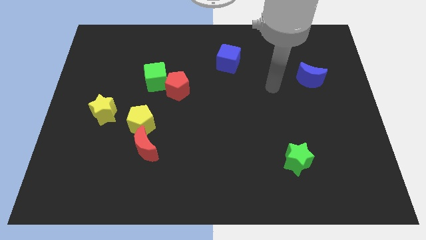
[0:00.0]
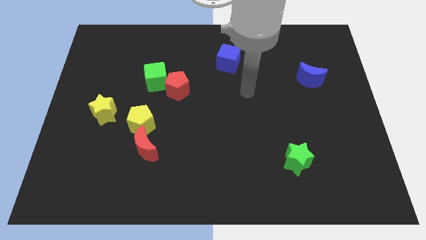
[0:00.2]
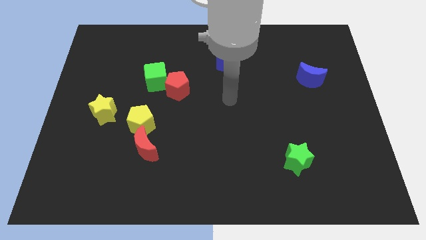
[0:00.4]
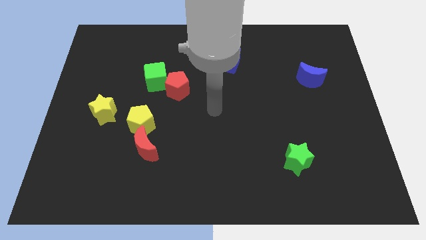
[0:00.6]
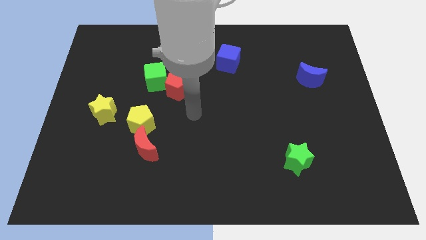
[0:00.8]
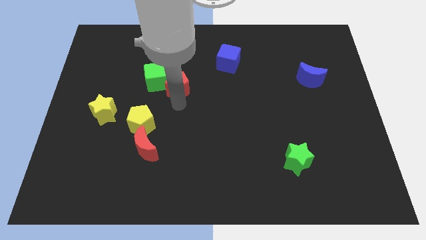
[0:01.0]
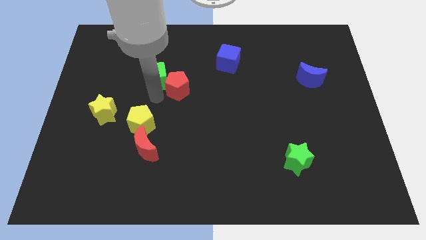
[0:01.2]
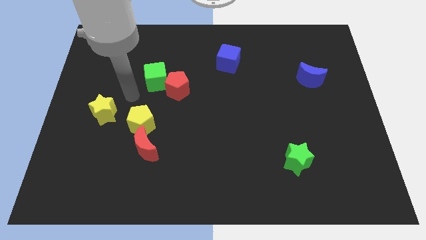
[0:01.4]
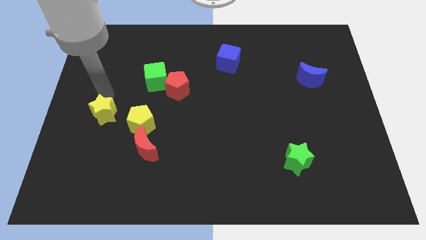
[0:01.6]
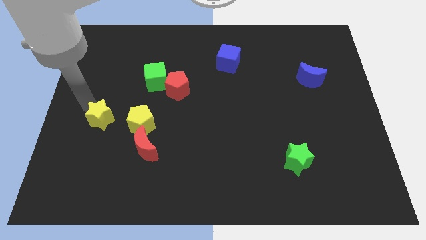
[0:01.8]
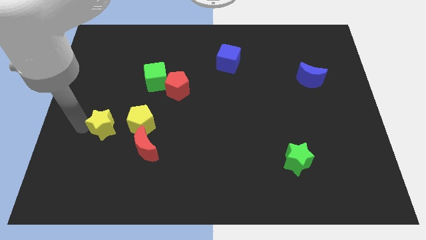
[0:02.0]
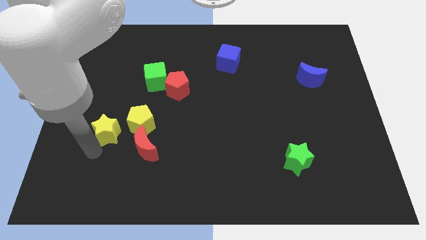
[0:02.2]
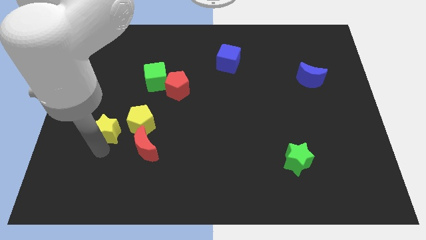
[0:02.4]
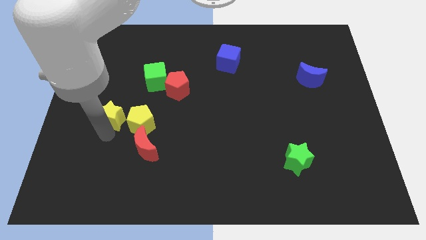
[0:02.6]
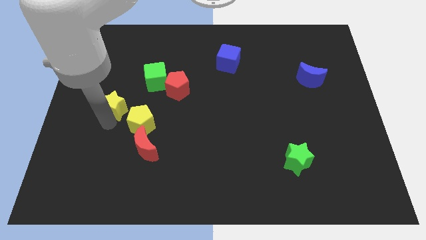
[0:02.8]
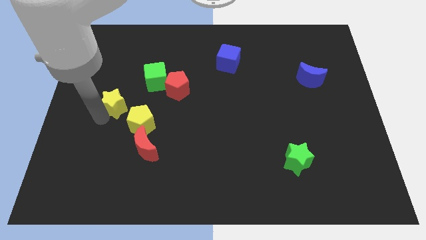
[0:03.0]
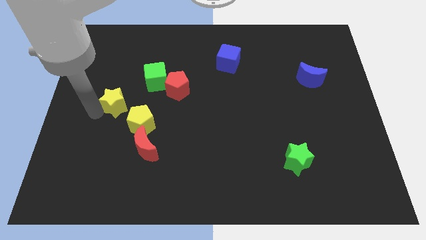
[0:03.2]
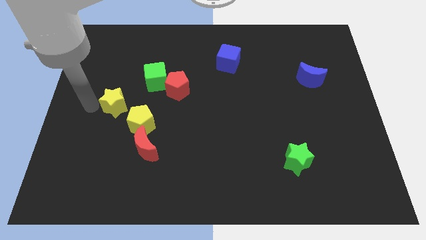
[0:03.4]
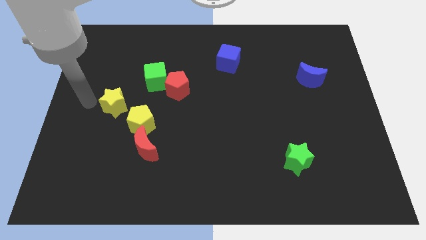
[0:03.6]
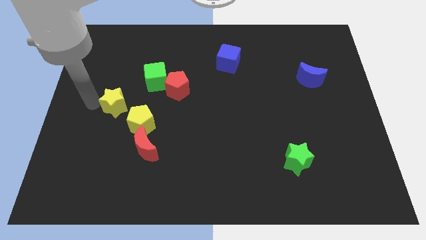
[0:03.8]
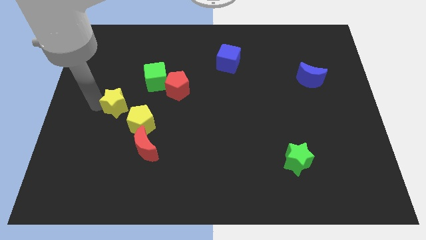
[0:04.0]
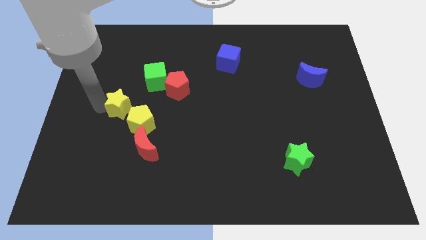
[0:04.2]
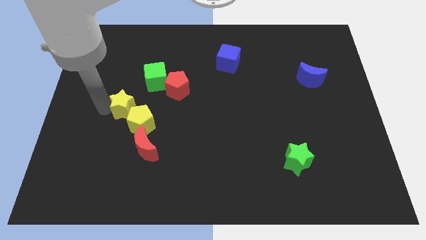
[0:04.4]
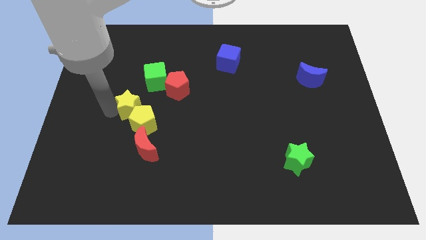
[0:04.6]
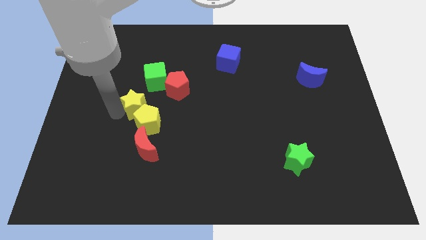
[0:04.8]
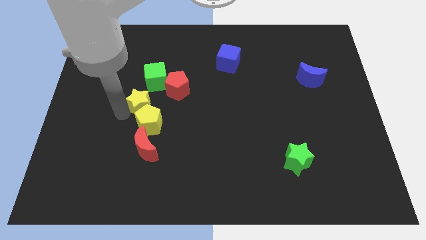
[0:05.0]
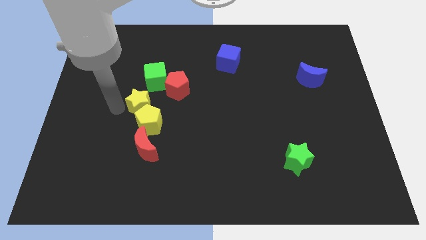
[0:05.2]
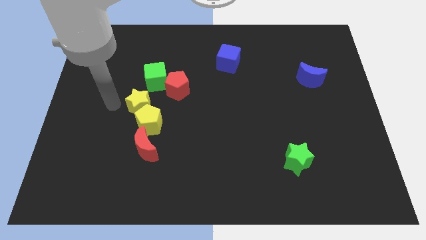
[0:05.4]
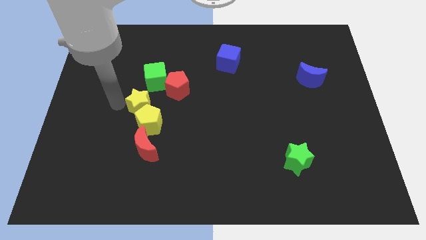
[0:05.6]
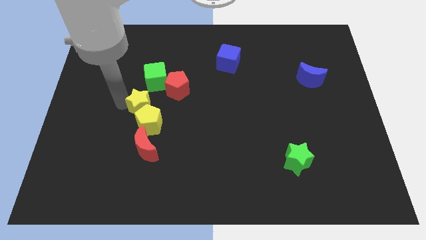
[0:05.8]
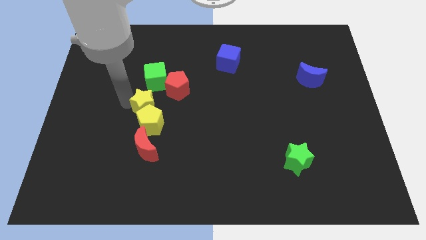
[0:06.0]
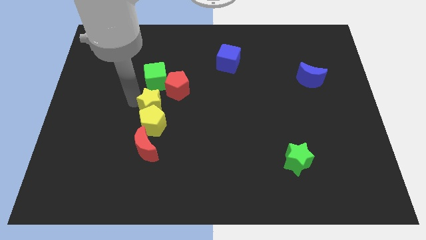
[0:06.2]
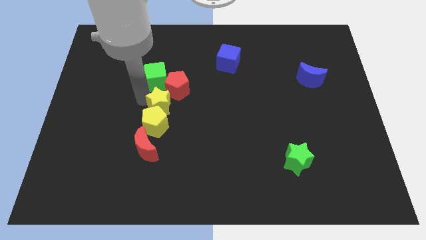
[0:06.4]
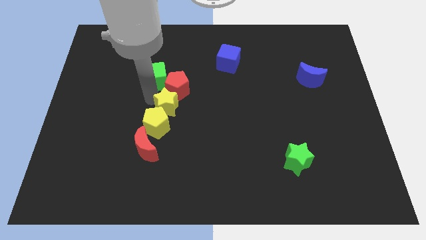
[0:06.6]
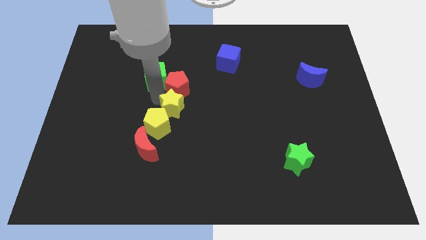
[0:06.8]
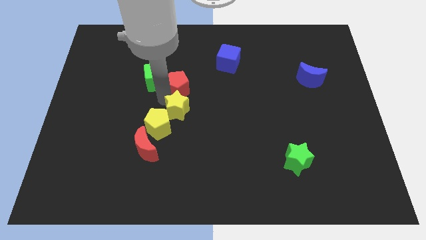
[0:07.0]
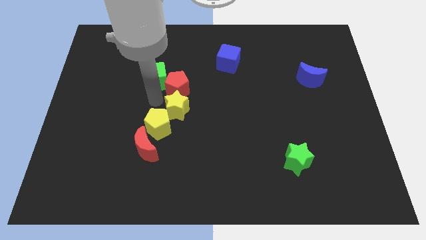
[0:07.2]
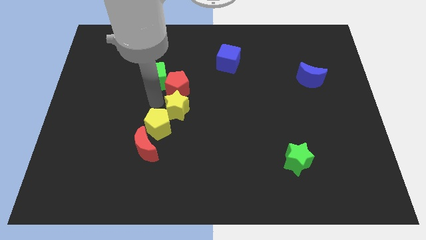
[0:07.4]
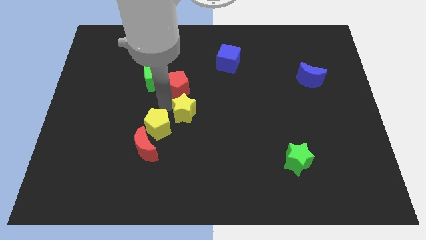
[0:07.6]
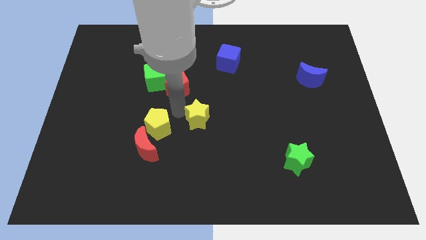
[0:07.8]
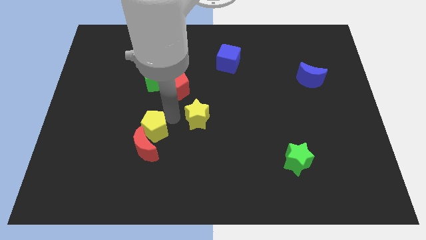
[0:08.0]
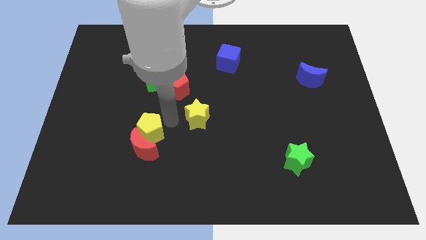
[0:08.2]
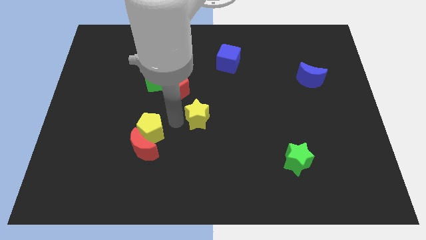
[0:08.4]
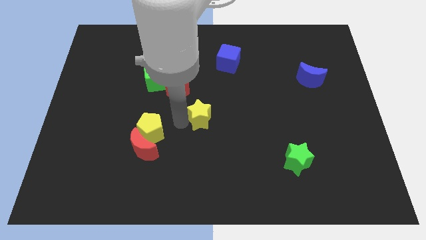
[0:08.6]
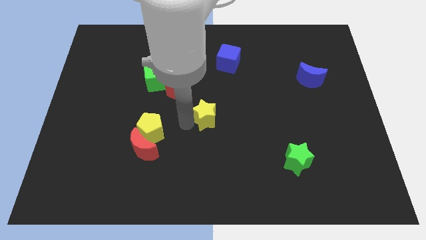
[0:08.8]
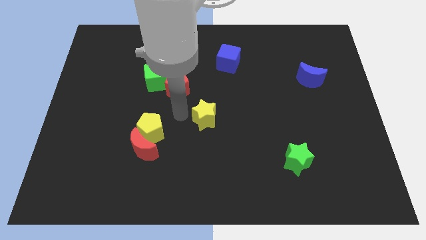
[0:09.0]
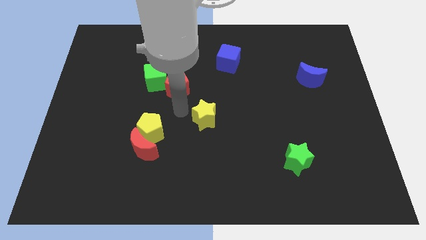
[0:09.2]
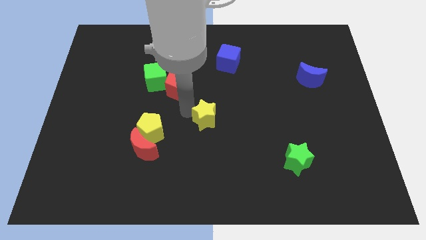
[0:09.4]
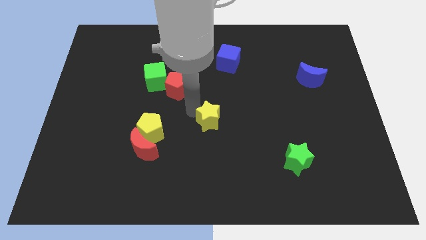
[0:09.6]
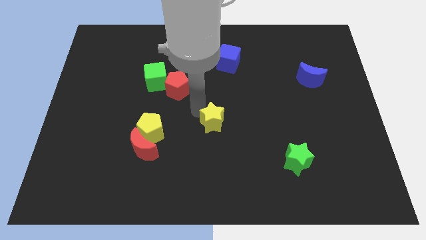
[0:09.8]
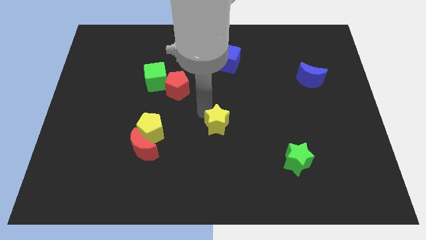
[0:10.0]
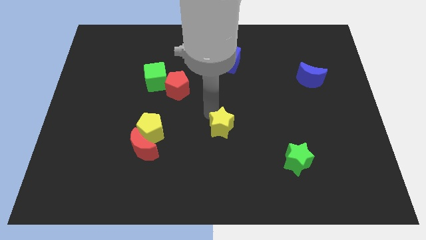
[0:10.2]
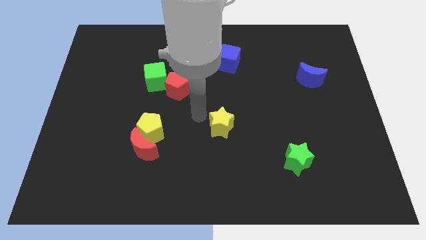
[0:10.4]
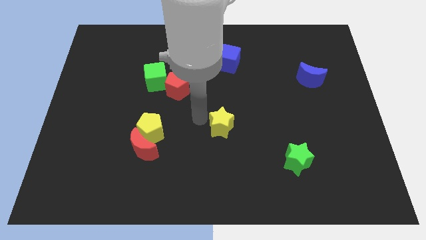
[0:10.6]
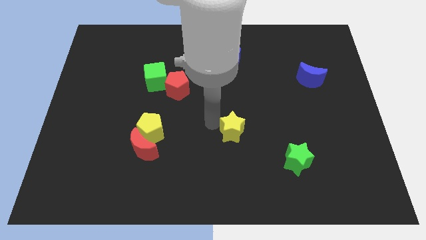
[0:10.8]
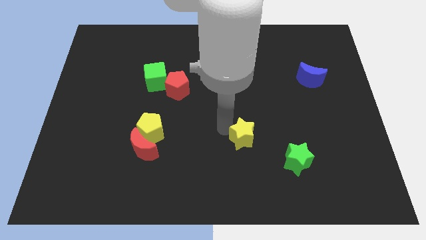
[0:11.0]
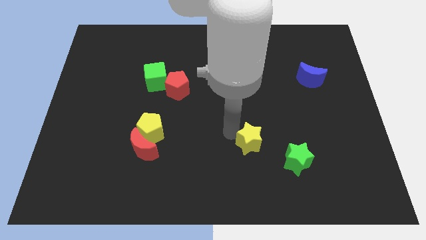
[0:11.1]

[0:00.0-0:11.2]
put the yellow star diagonally up and to the left of the green star
